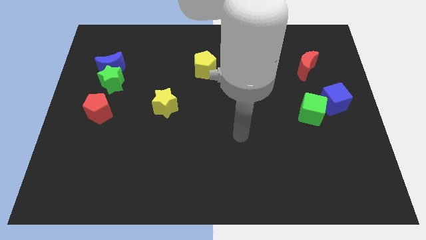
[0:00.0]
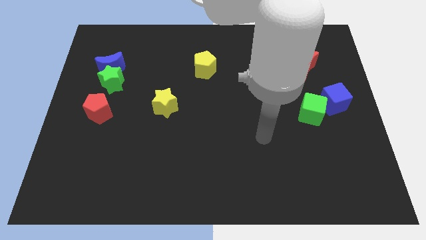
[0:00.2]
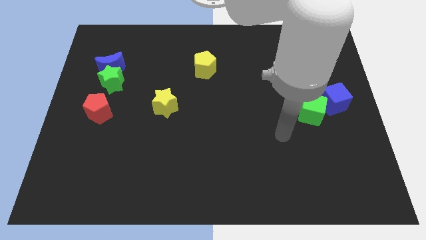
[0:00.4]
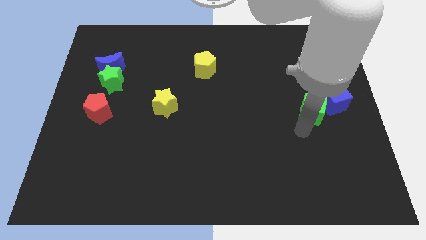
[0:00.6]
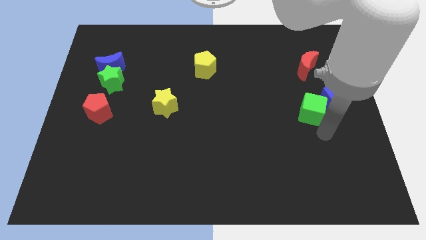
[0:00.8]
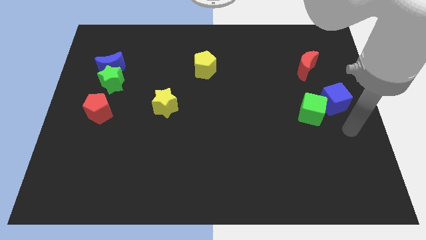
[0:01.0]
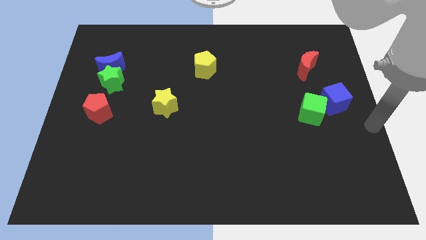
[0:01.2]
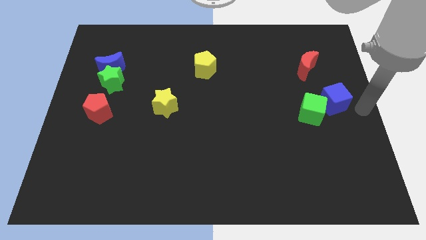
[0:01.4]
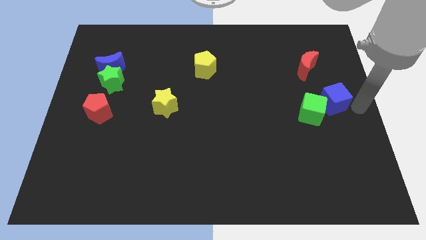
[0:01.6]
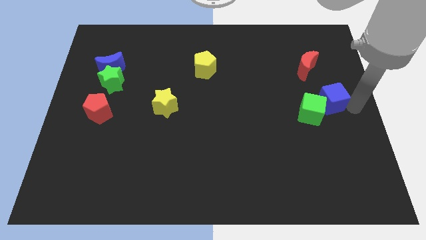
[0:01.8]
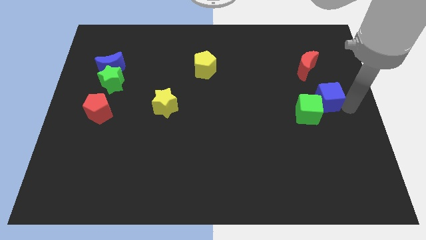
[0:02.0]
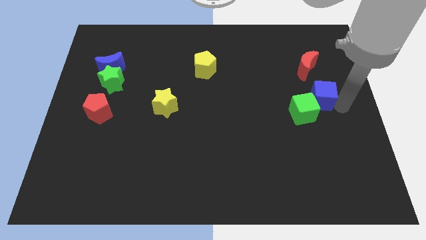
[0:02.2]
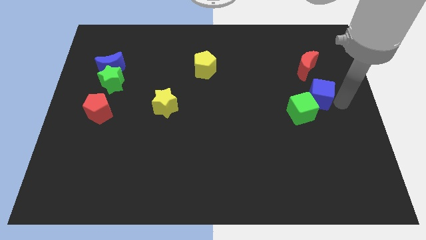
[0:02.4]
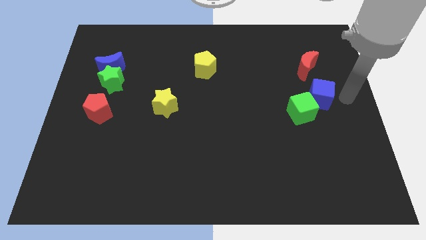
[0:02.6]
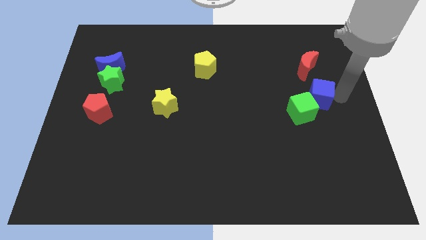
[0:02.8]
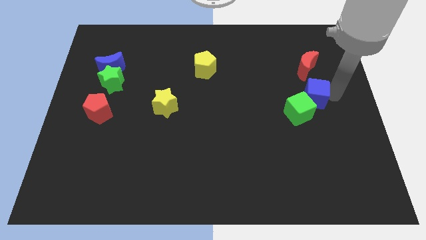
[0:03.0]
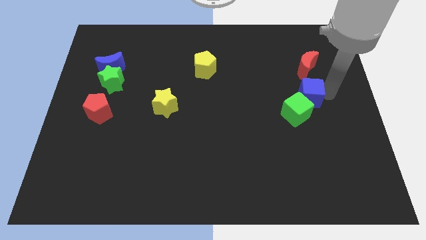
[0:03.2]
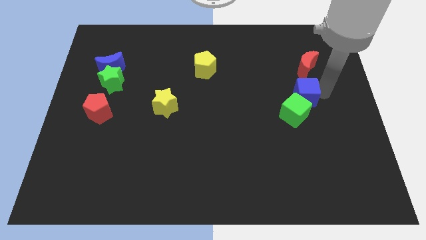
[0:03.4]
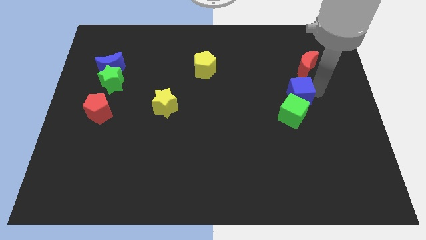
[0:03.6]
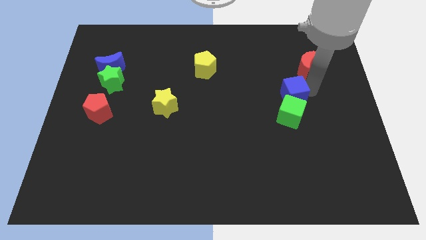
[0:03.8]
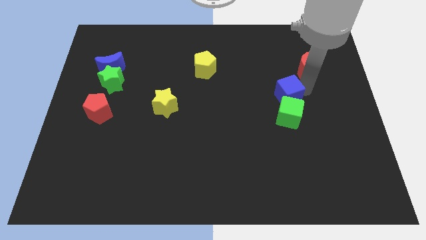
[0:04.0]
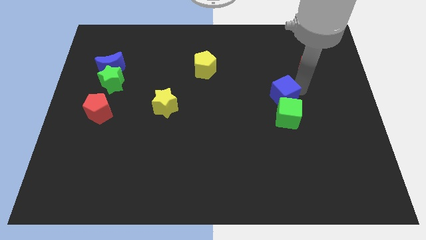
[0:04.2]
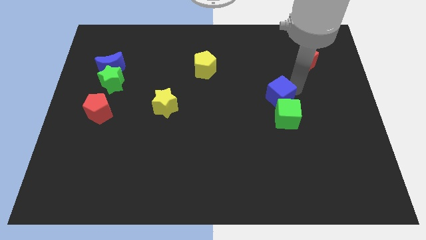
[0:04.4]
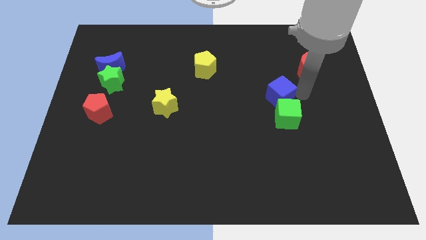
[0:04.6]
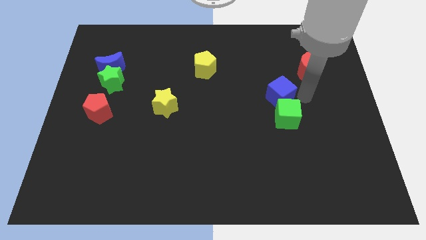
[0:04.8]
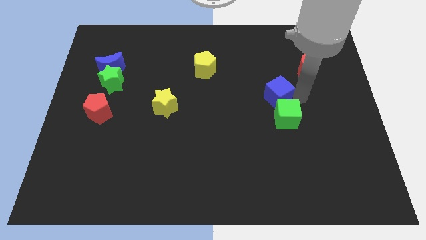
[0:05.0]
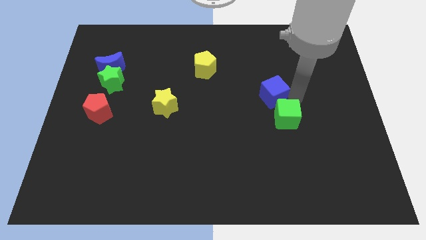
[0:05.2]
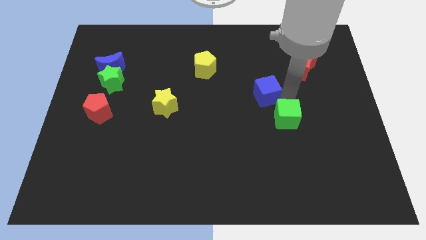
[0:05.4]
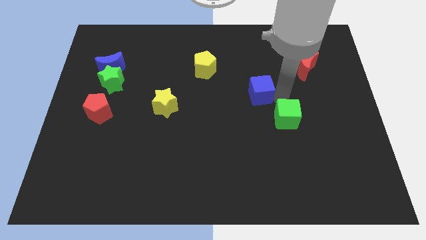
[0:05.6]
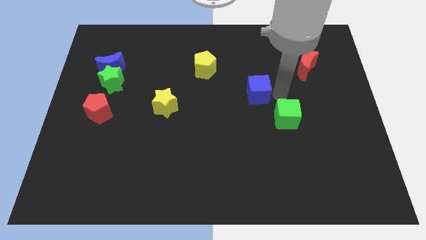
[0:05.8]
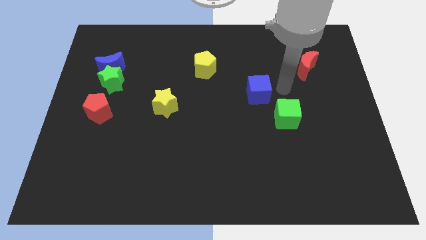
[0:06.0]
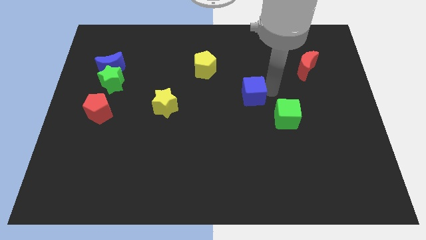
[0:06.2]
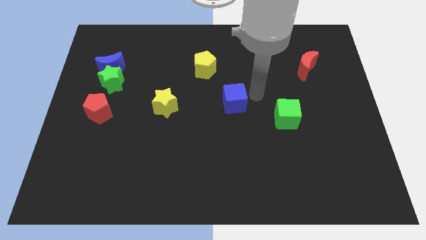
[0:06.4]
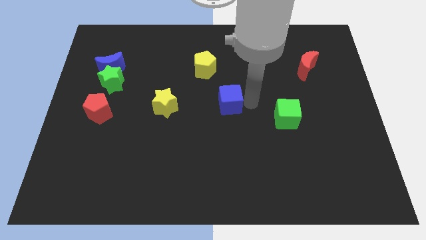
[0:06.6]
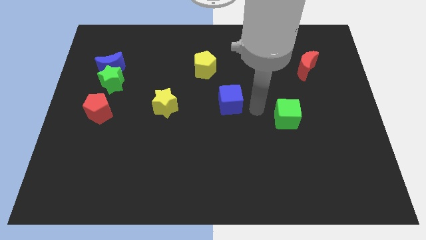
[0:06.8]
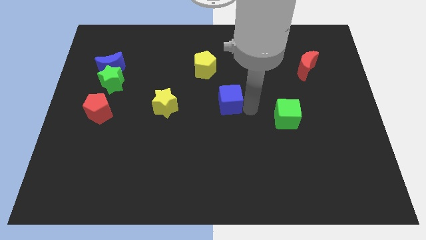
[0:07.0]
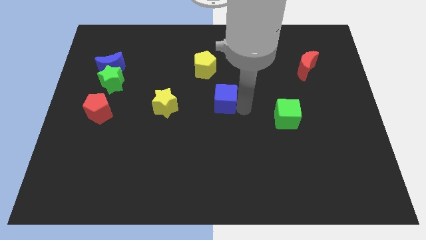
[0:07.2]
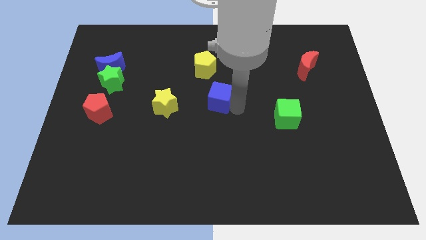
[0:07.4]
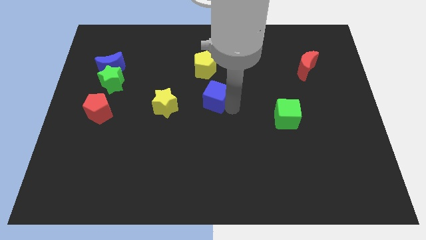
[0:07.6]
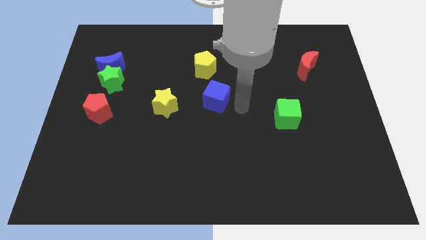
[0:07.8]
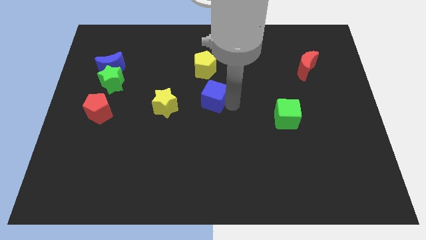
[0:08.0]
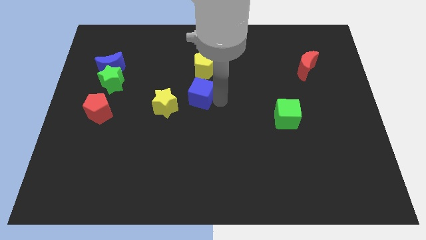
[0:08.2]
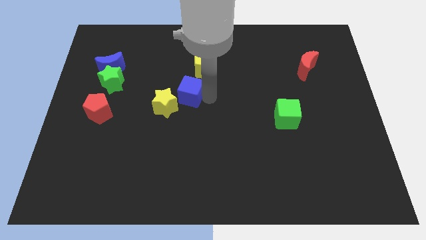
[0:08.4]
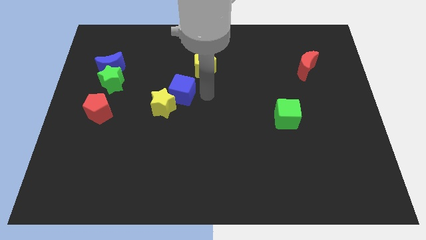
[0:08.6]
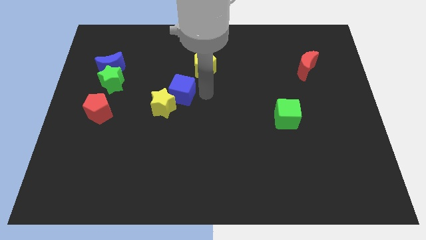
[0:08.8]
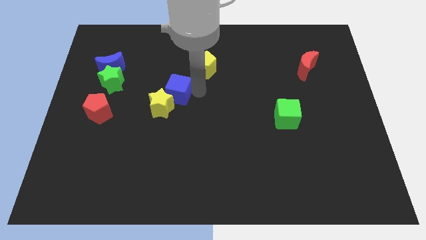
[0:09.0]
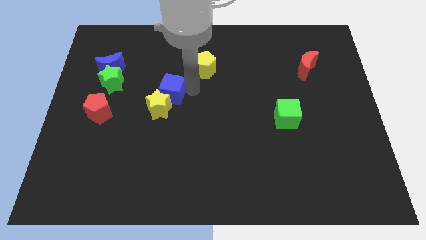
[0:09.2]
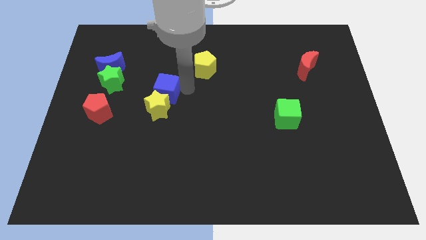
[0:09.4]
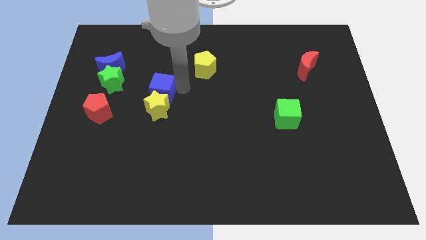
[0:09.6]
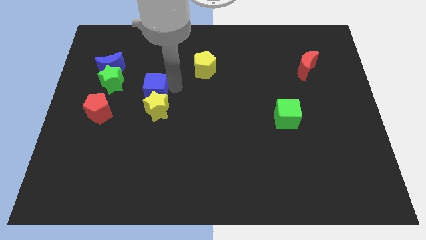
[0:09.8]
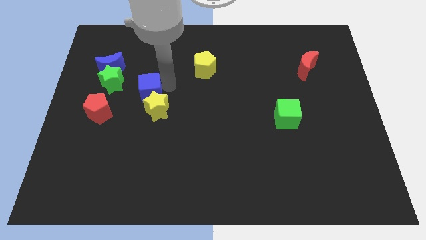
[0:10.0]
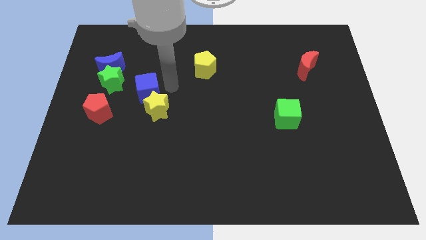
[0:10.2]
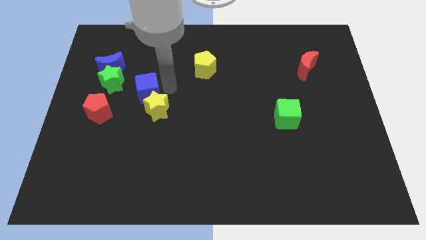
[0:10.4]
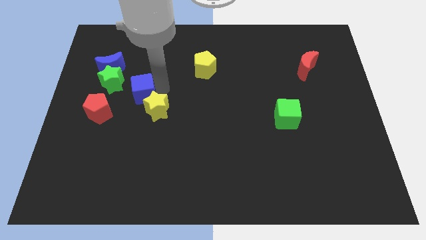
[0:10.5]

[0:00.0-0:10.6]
put the blue cube diagonally up and to the right of the red pentagon

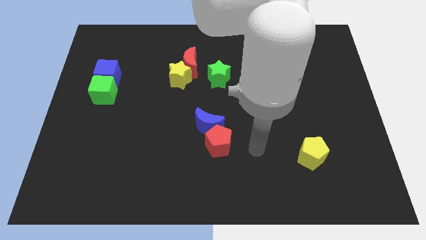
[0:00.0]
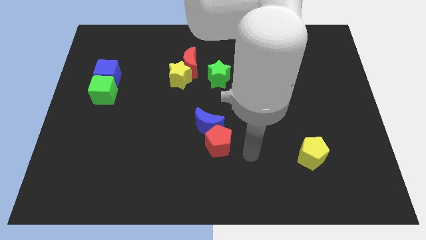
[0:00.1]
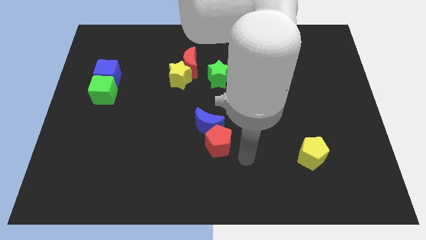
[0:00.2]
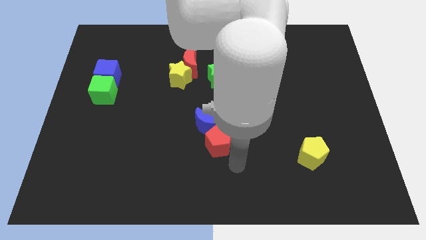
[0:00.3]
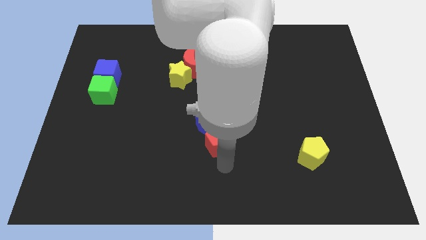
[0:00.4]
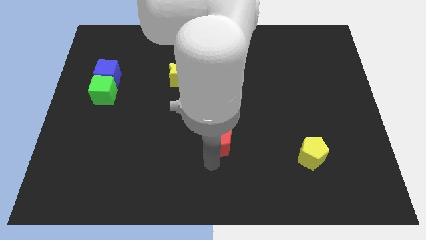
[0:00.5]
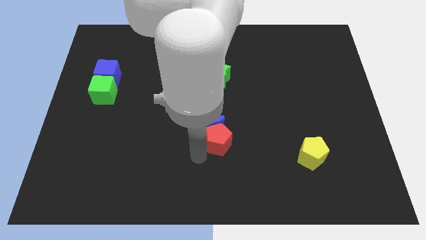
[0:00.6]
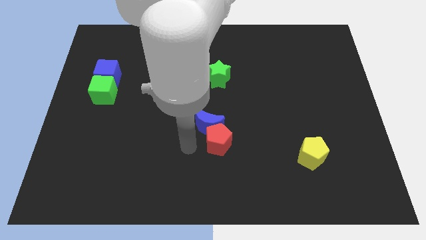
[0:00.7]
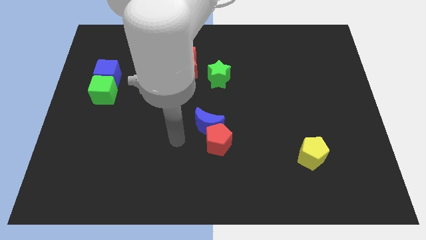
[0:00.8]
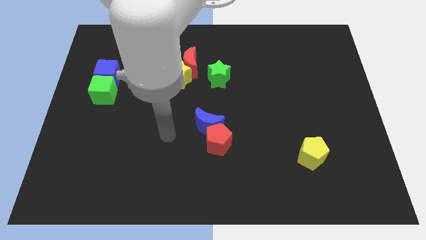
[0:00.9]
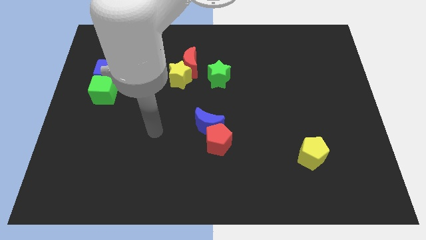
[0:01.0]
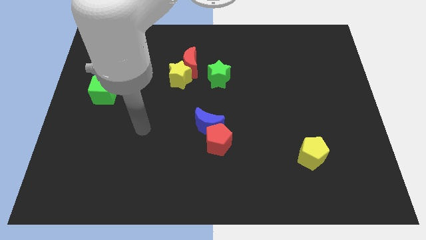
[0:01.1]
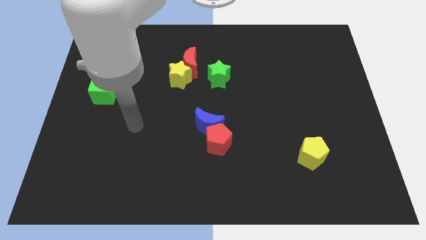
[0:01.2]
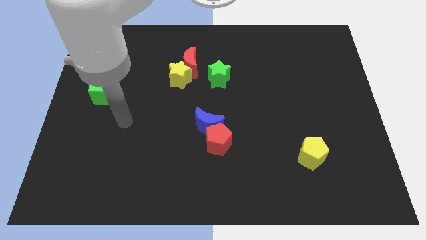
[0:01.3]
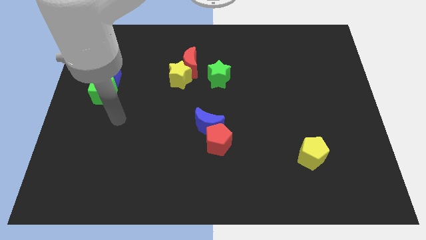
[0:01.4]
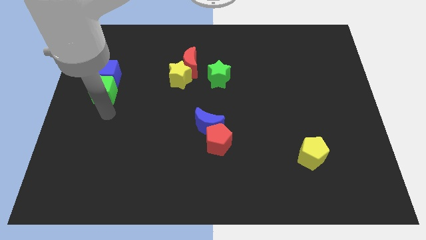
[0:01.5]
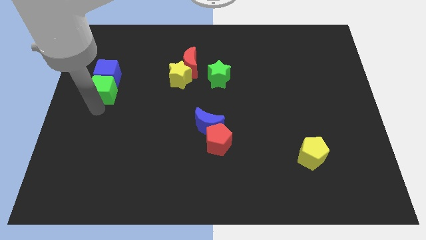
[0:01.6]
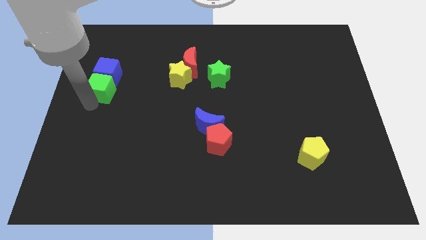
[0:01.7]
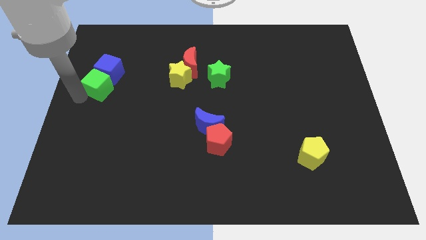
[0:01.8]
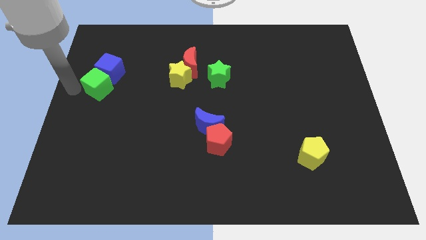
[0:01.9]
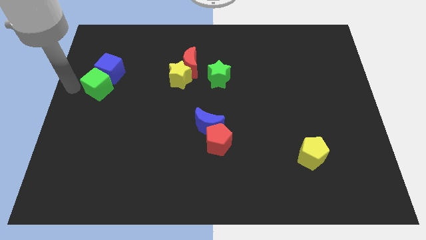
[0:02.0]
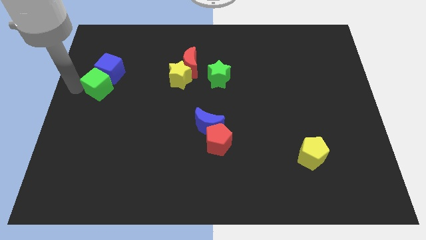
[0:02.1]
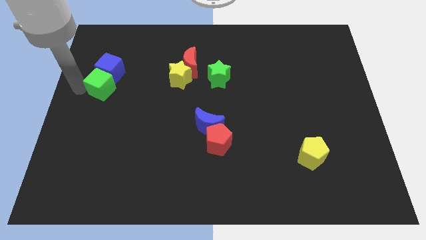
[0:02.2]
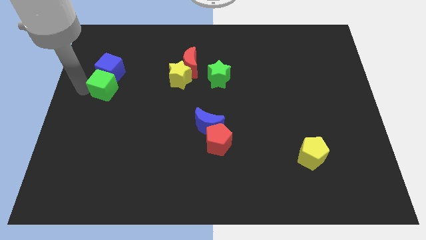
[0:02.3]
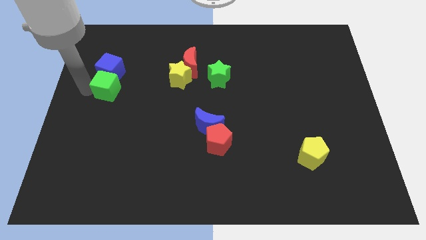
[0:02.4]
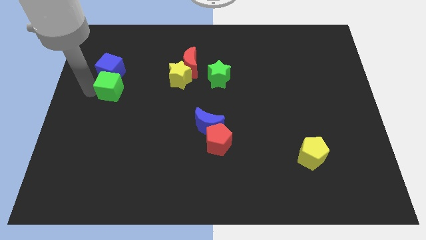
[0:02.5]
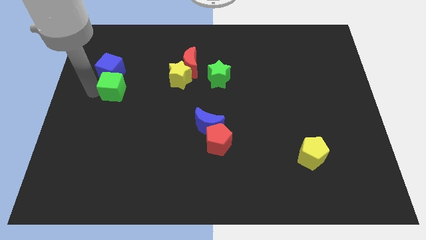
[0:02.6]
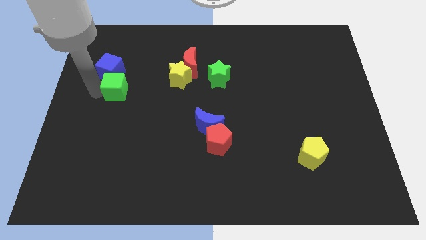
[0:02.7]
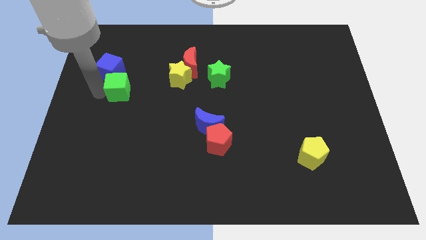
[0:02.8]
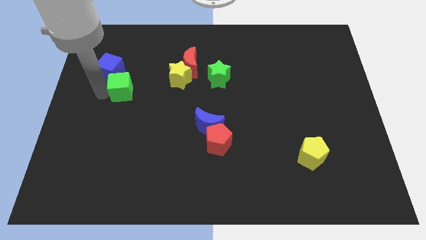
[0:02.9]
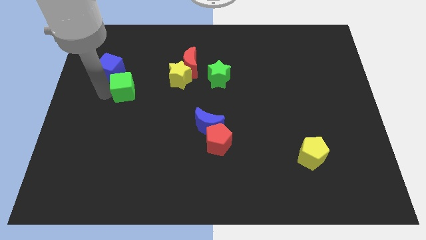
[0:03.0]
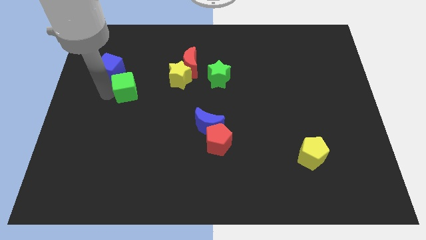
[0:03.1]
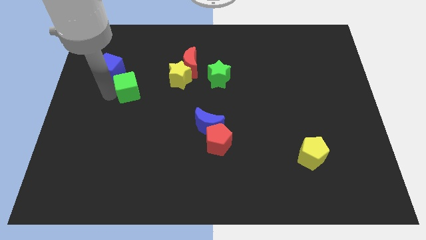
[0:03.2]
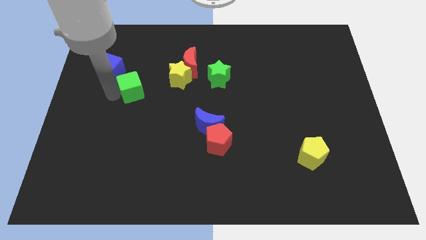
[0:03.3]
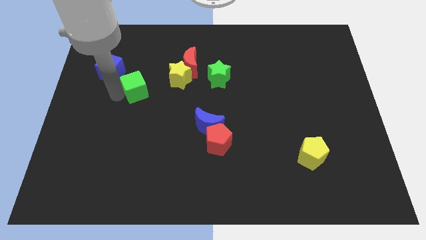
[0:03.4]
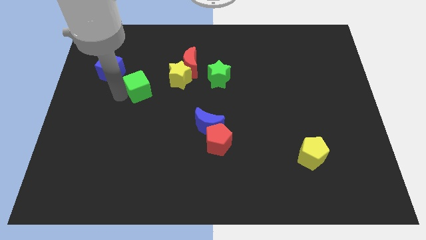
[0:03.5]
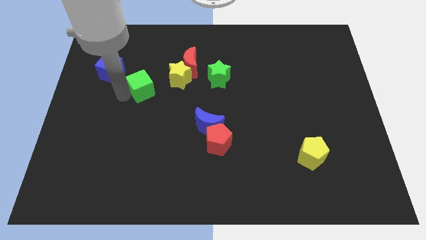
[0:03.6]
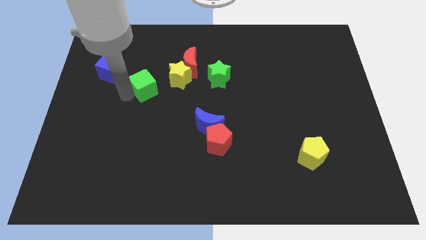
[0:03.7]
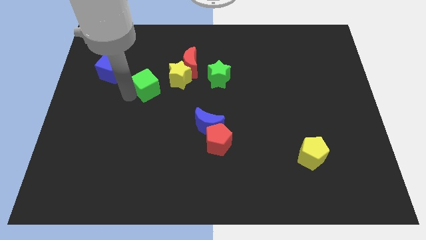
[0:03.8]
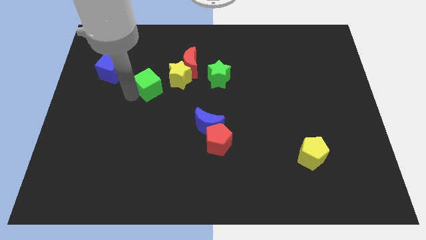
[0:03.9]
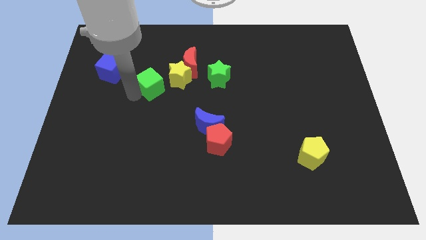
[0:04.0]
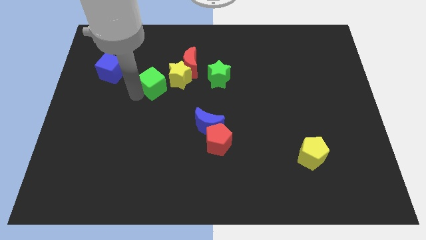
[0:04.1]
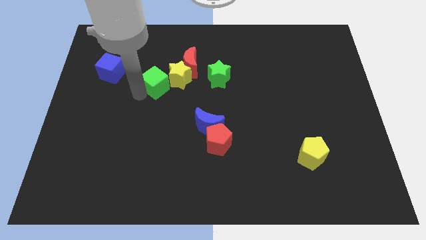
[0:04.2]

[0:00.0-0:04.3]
slide the green cube to the left of the green star
